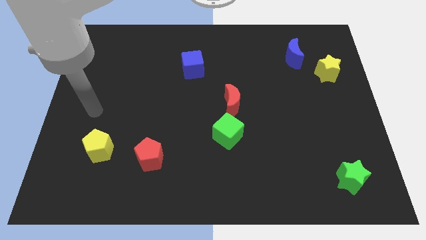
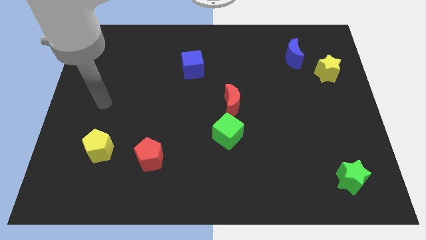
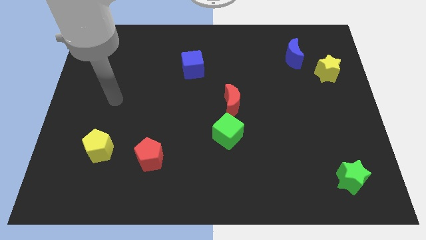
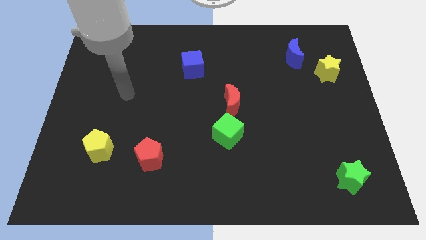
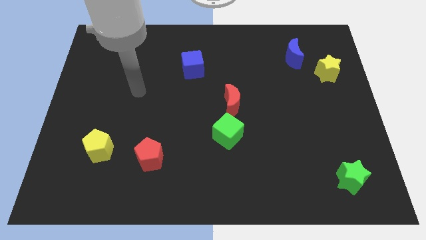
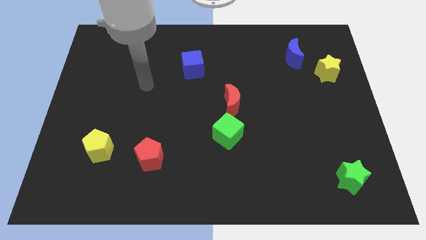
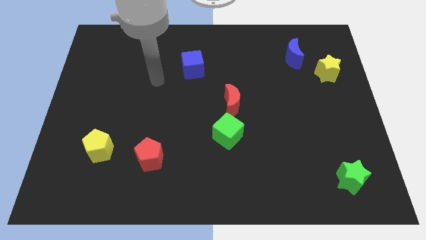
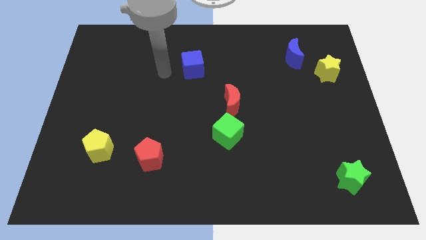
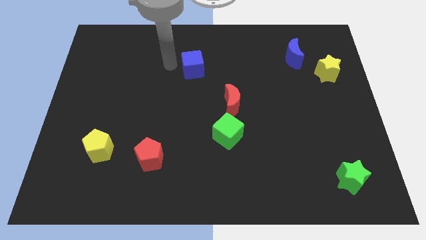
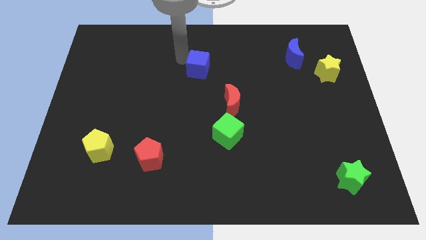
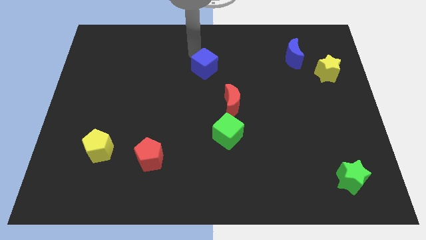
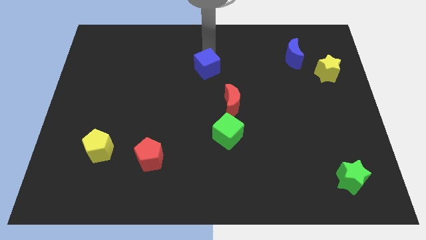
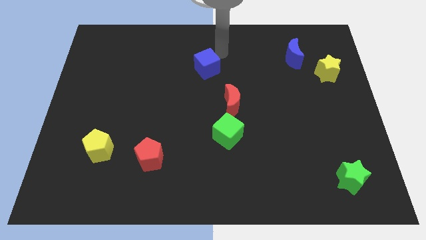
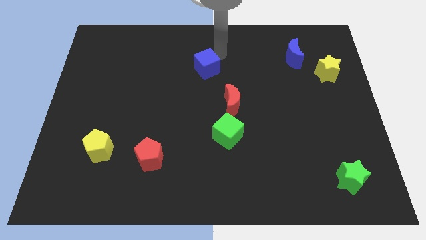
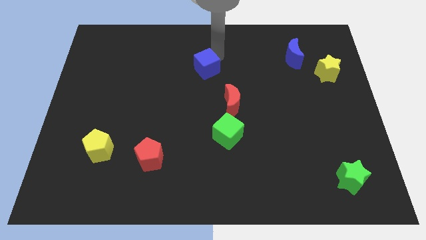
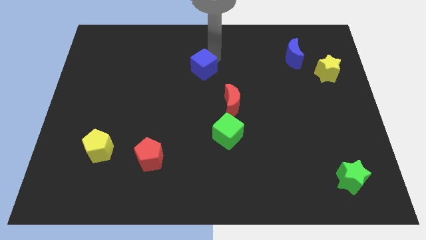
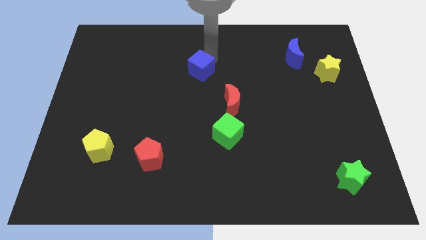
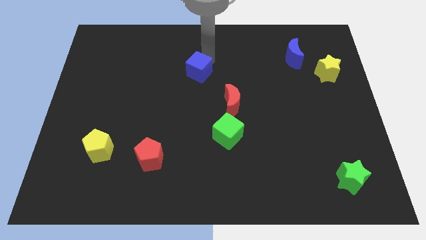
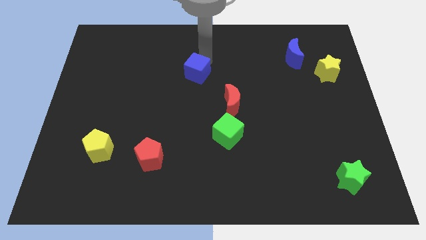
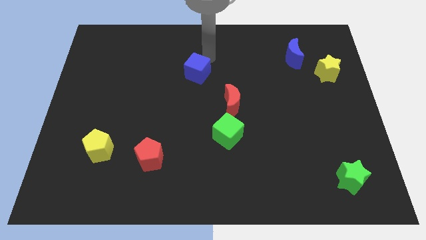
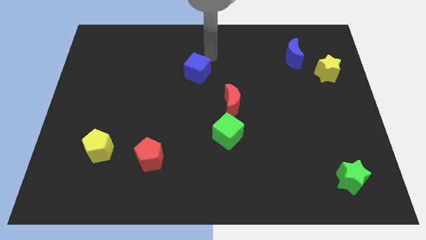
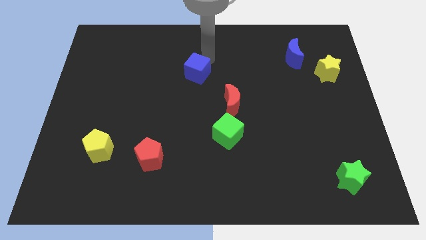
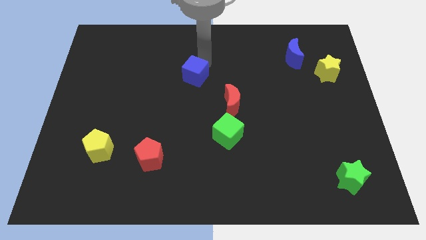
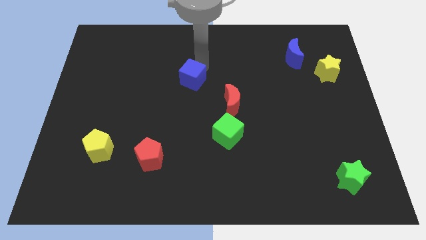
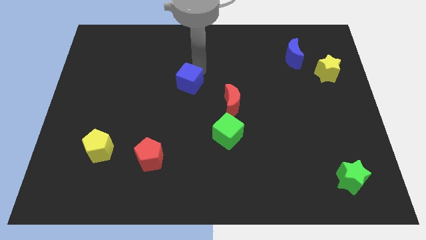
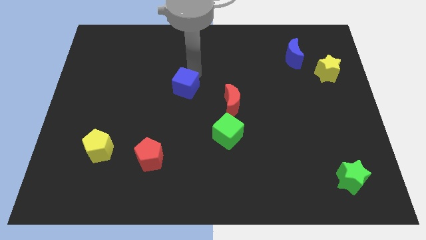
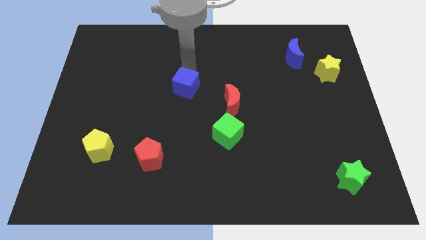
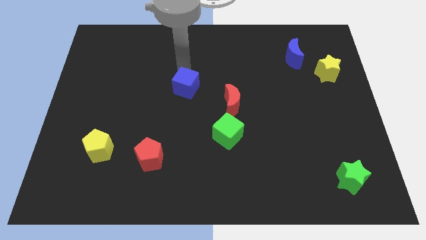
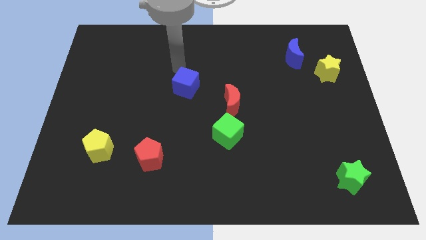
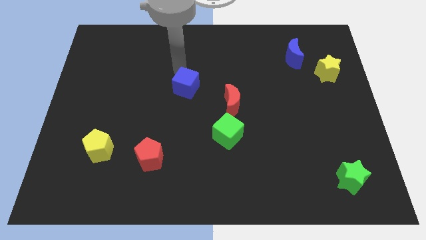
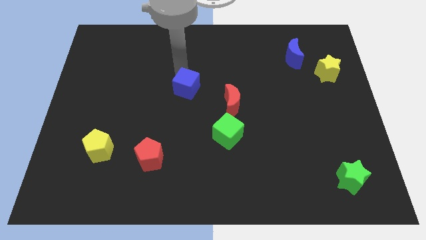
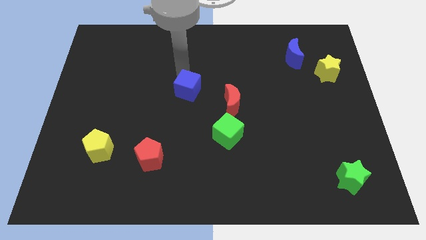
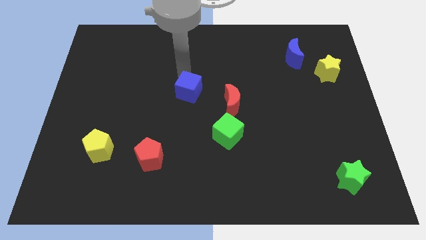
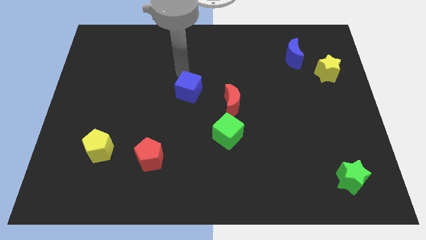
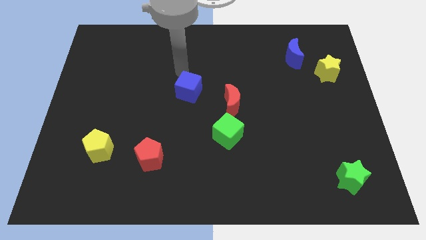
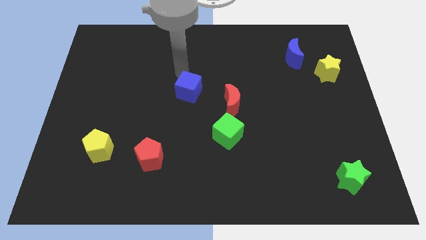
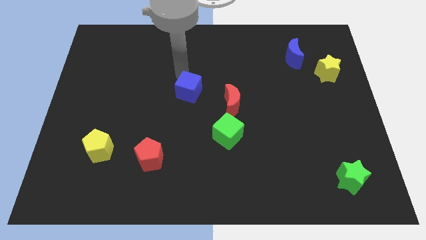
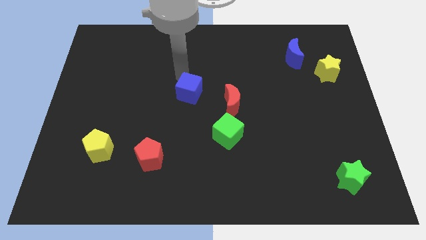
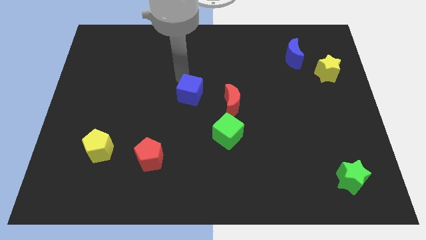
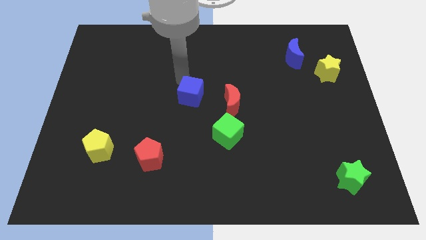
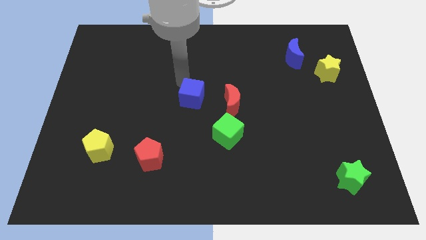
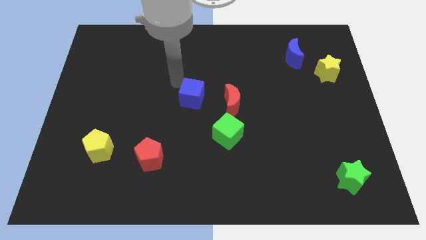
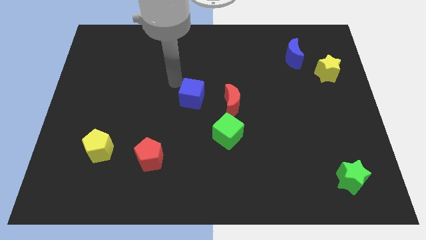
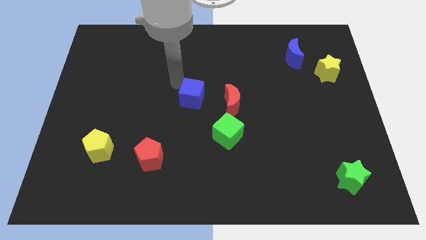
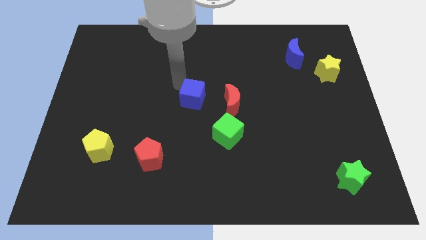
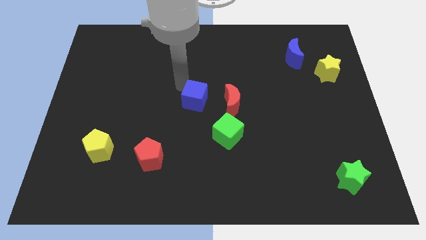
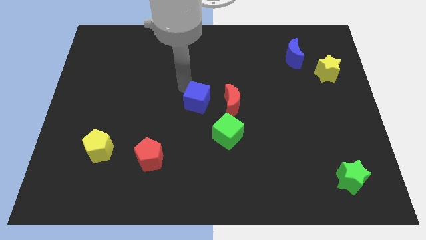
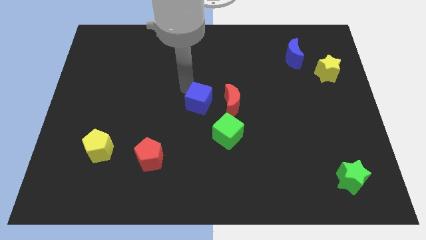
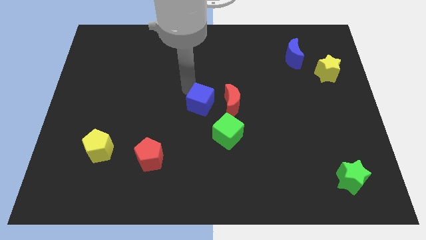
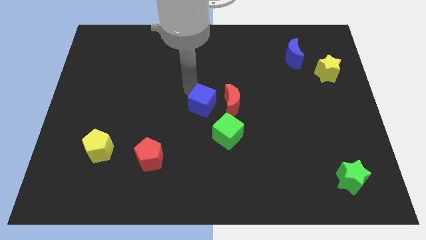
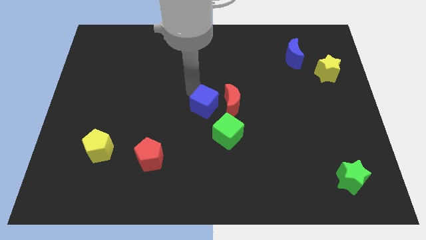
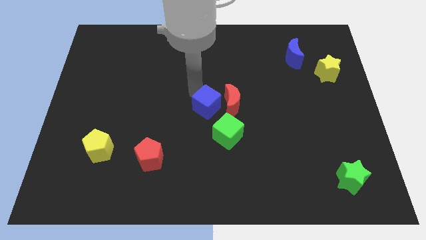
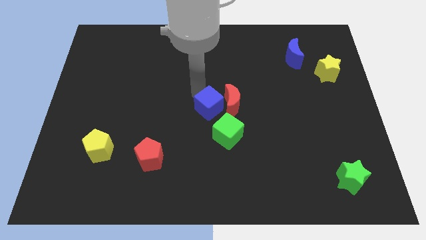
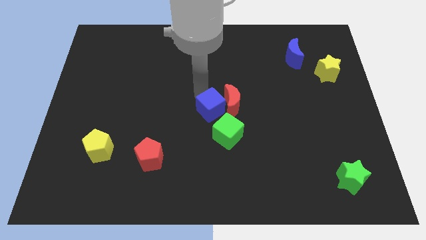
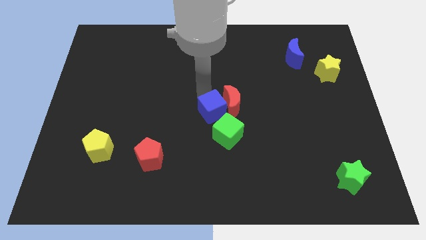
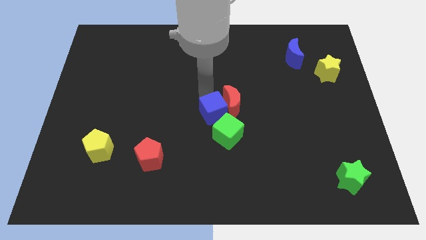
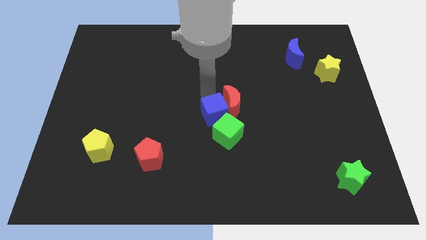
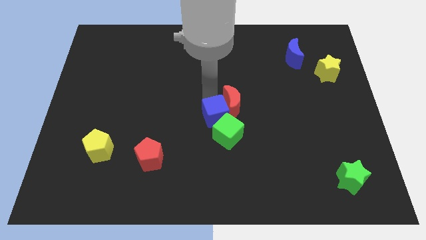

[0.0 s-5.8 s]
slide the blue cube to the green cube

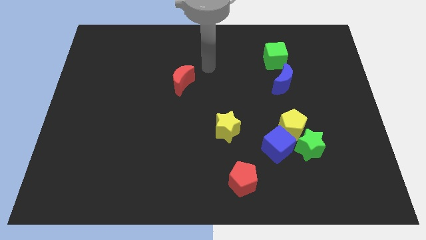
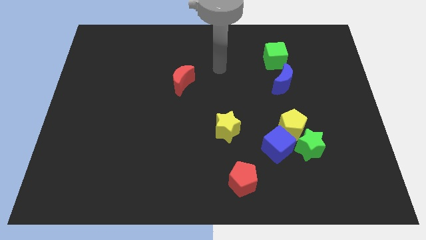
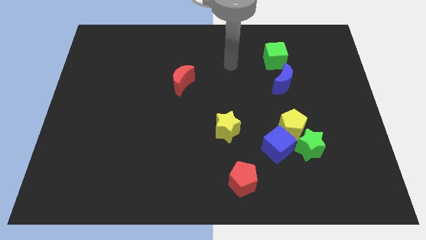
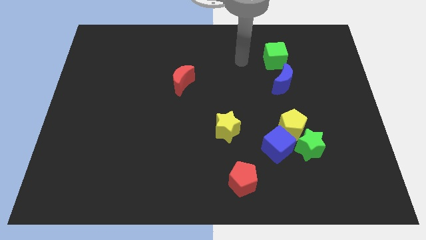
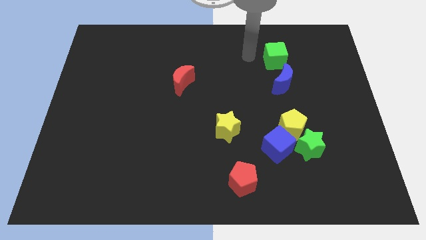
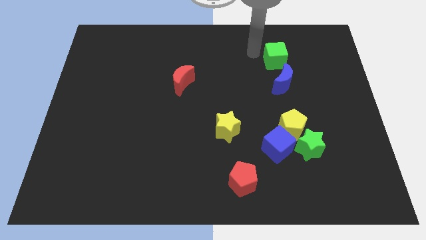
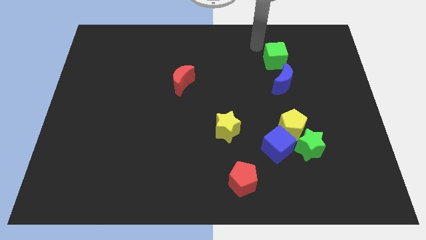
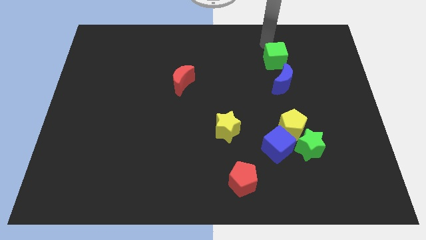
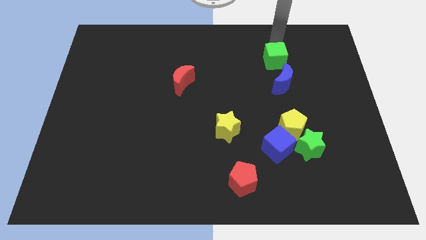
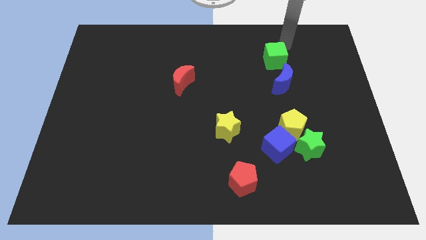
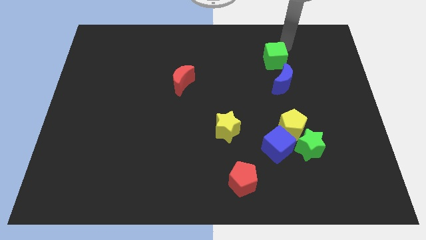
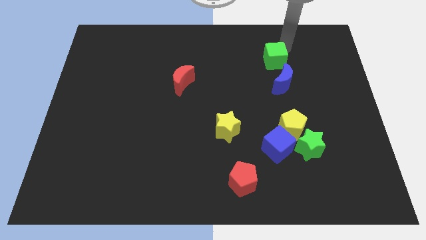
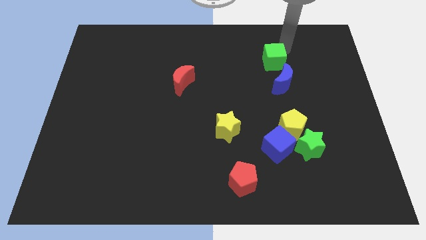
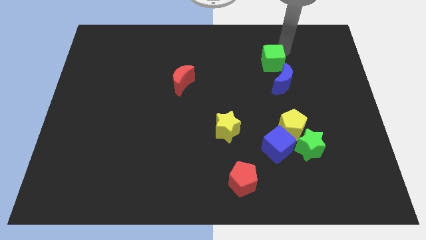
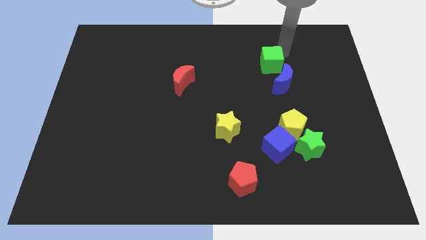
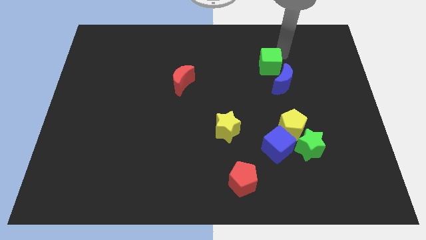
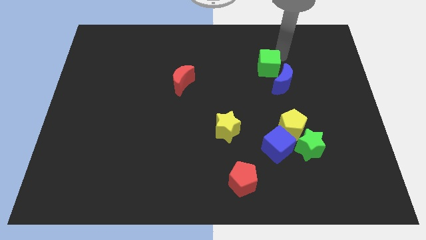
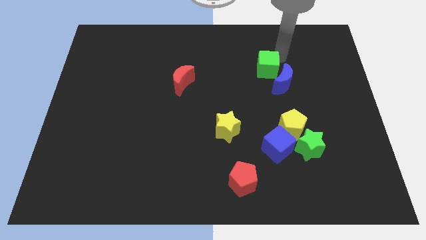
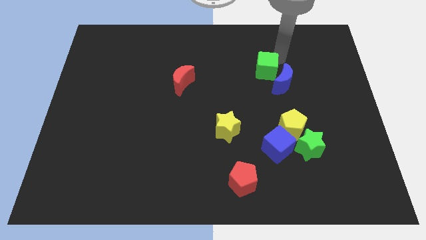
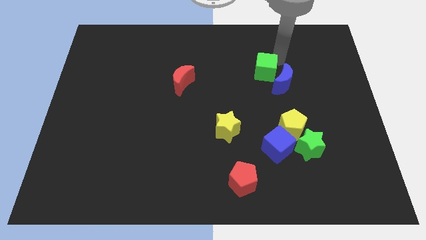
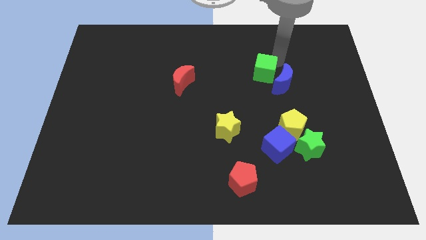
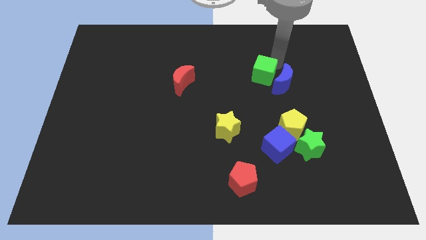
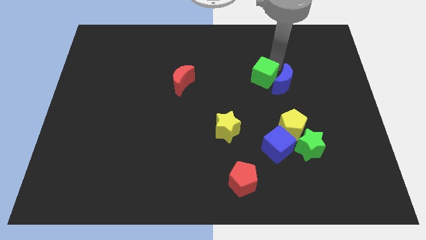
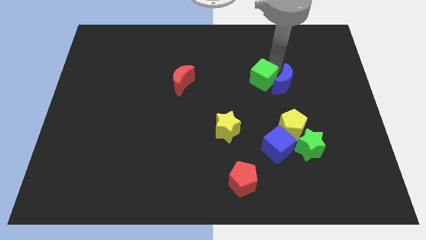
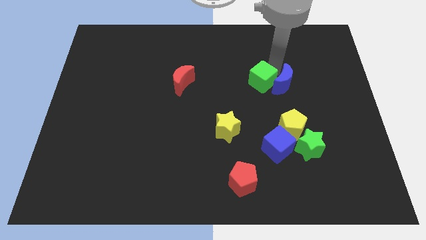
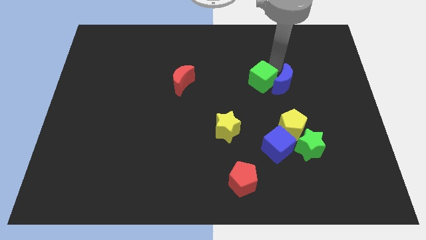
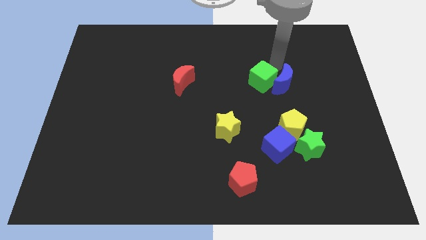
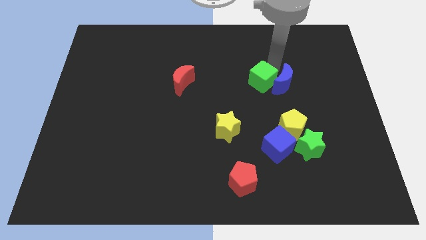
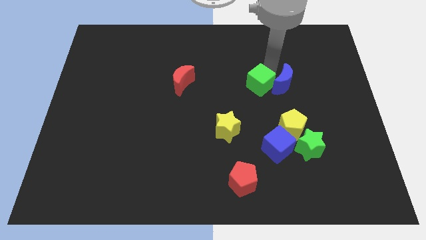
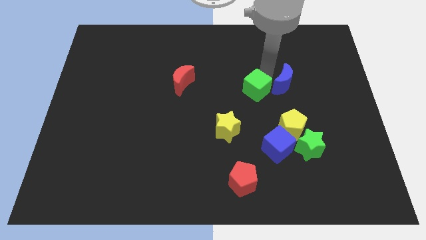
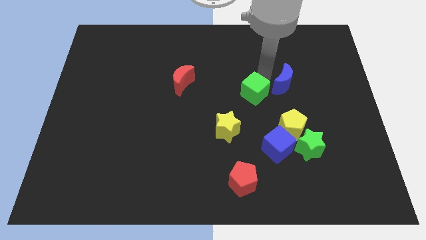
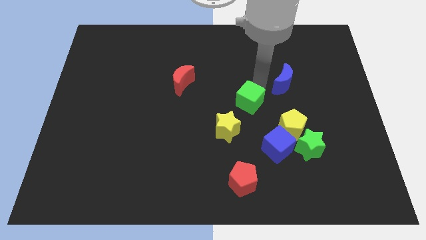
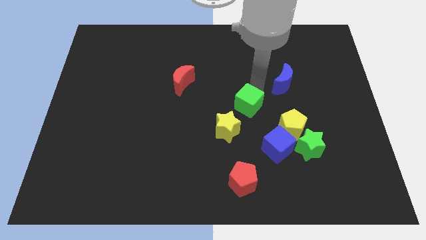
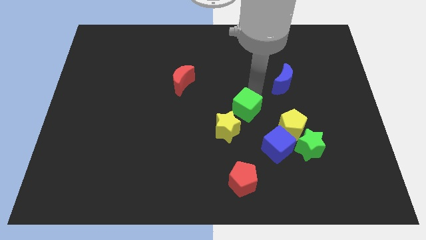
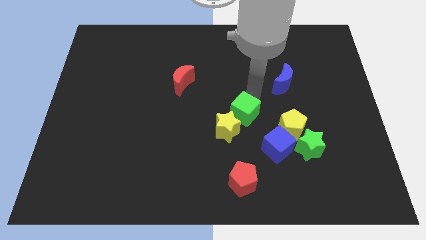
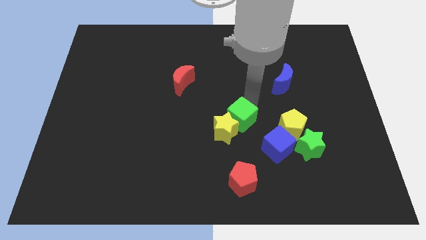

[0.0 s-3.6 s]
put the green cube next to the yellow star
